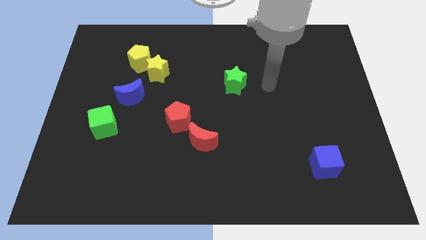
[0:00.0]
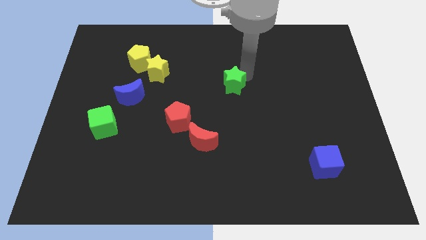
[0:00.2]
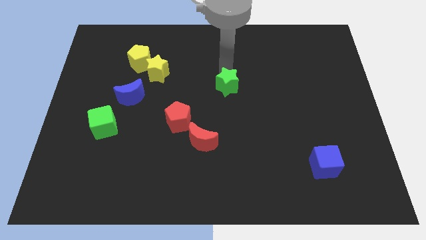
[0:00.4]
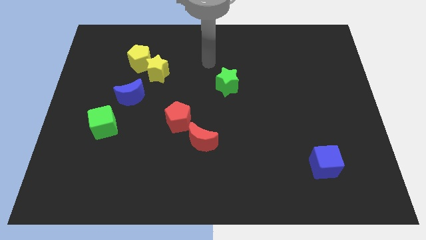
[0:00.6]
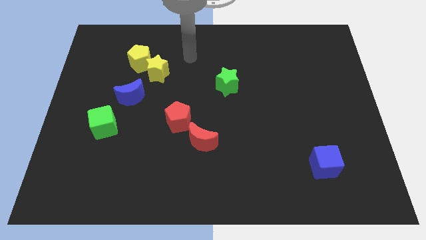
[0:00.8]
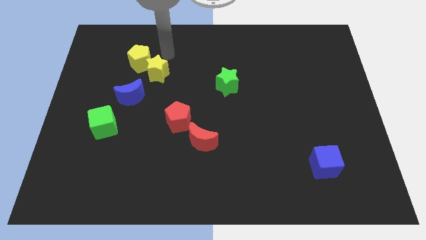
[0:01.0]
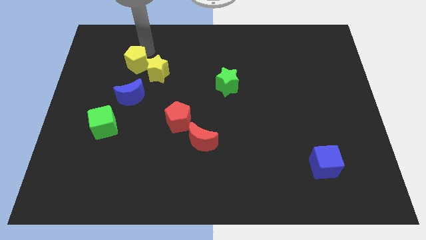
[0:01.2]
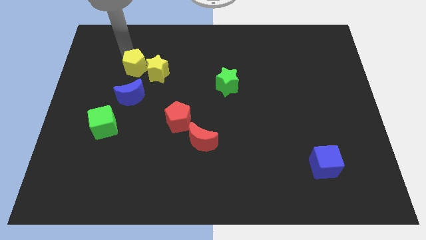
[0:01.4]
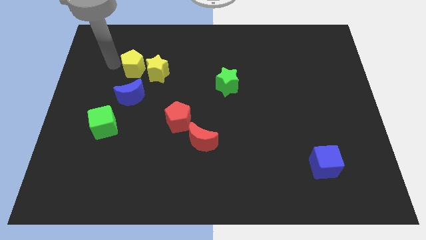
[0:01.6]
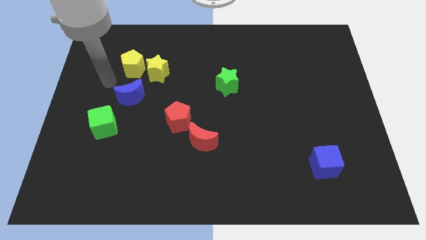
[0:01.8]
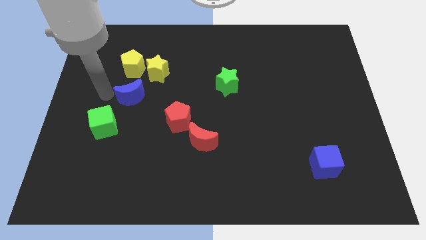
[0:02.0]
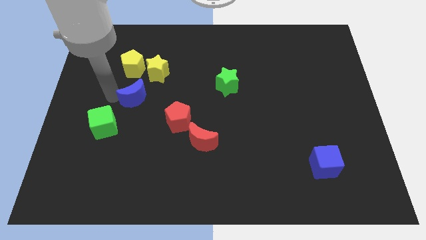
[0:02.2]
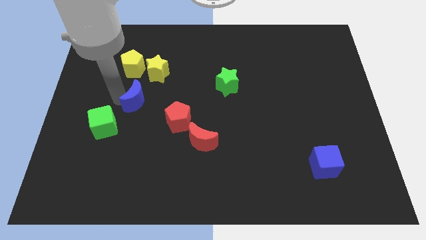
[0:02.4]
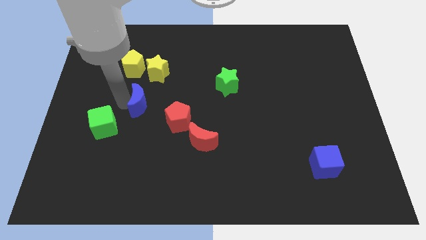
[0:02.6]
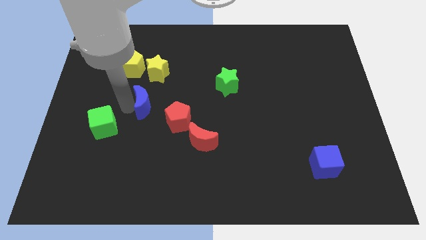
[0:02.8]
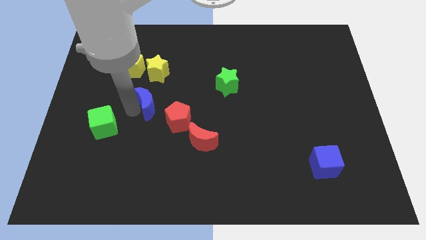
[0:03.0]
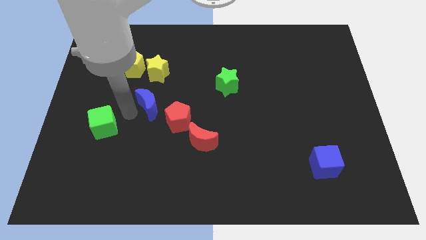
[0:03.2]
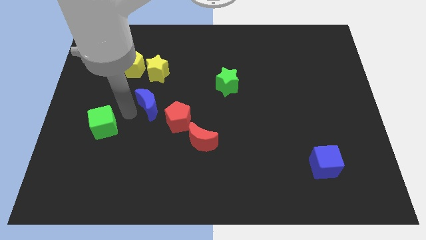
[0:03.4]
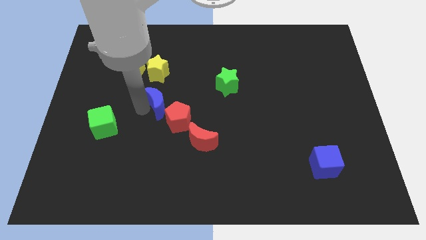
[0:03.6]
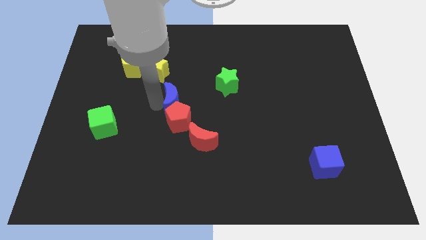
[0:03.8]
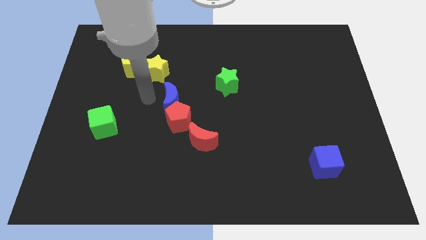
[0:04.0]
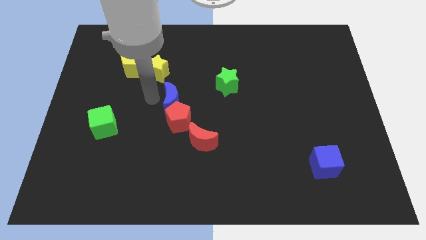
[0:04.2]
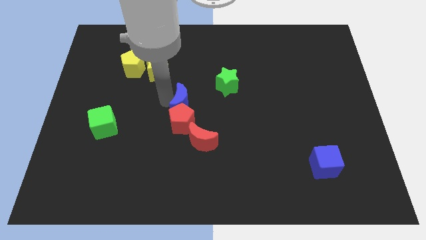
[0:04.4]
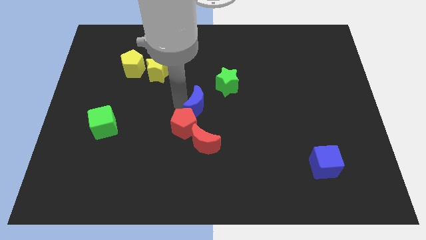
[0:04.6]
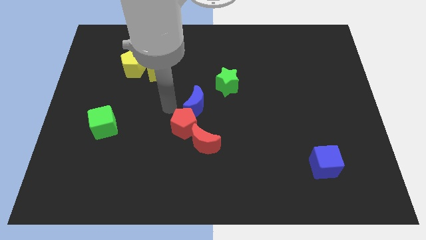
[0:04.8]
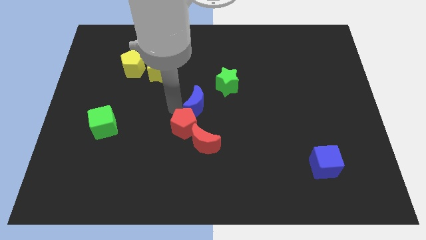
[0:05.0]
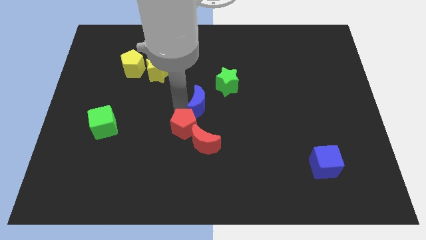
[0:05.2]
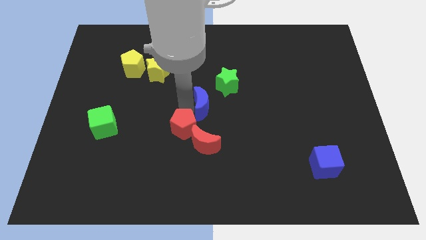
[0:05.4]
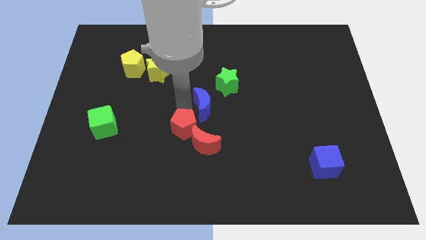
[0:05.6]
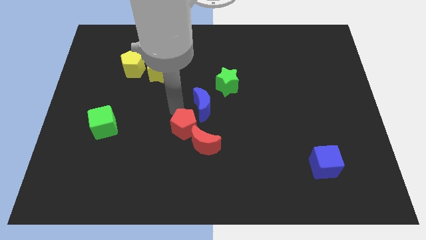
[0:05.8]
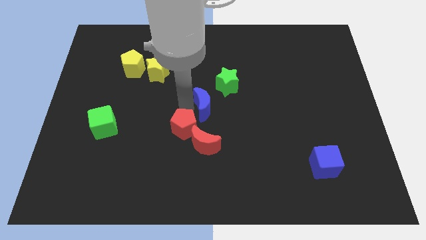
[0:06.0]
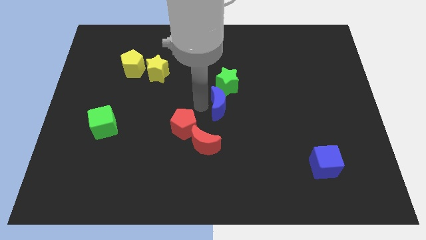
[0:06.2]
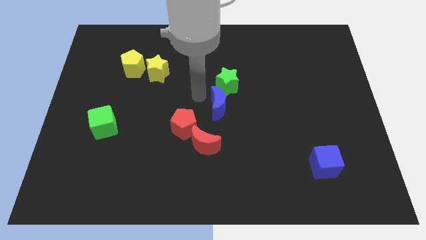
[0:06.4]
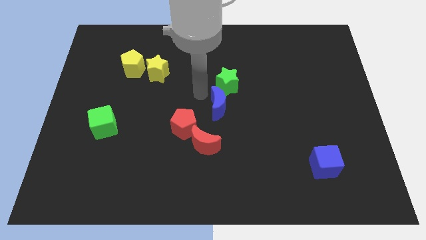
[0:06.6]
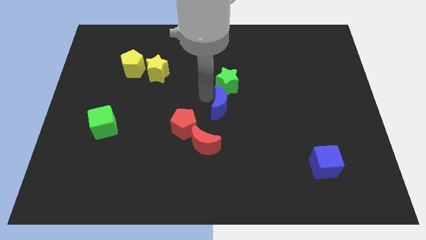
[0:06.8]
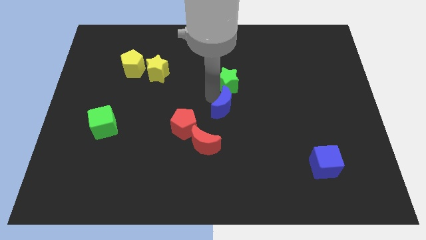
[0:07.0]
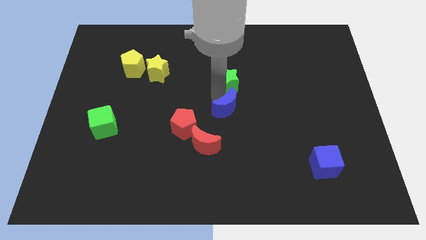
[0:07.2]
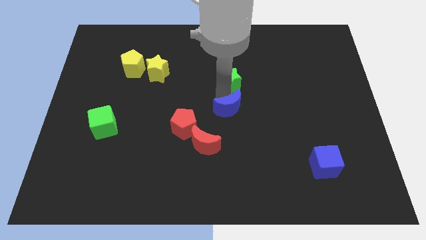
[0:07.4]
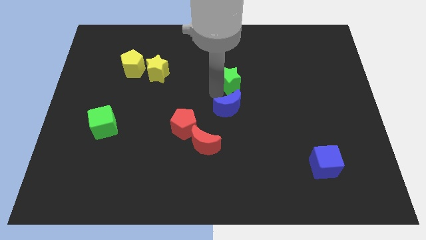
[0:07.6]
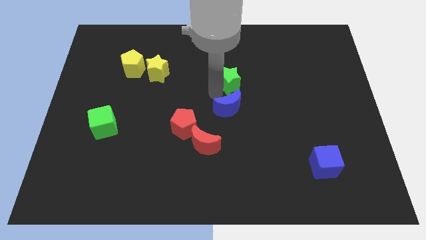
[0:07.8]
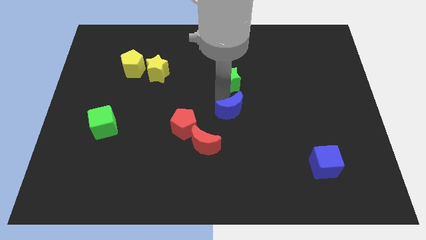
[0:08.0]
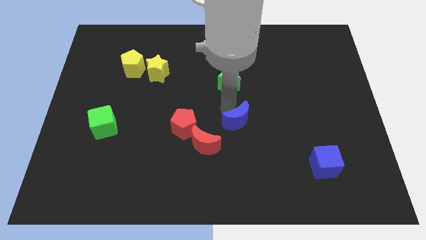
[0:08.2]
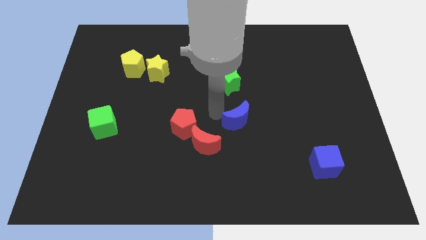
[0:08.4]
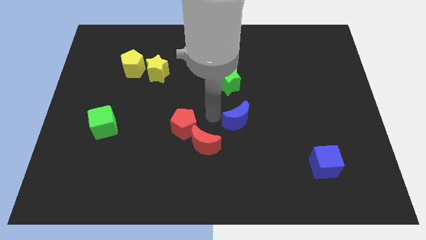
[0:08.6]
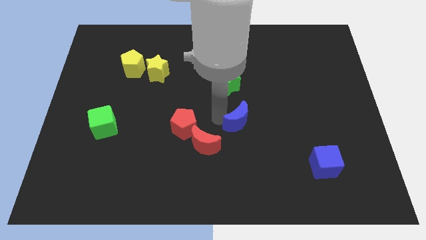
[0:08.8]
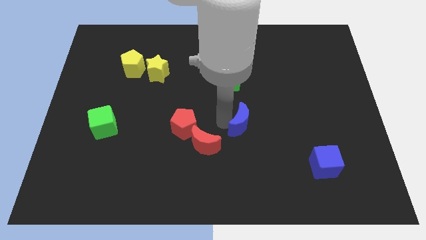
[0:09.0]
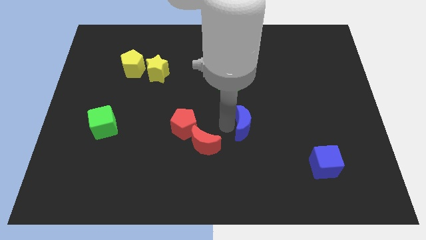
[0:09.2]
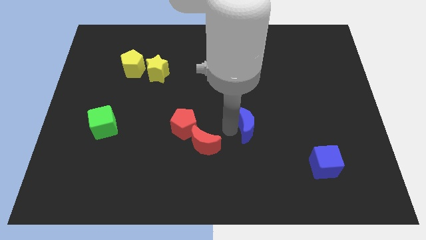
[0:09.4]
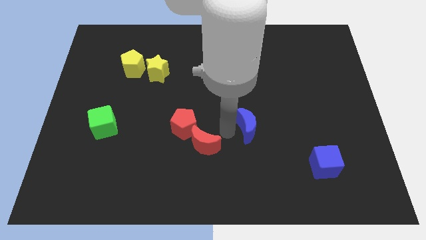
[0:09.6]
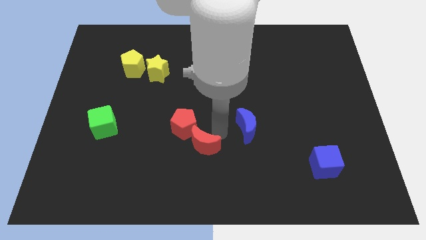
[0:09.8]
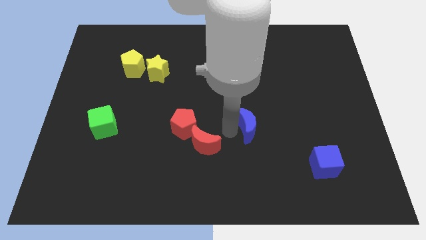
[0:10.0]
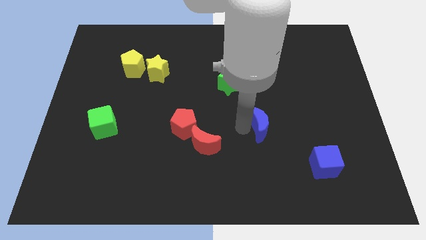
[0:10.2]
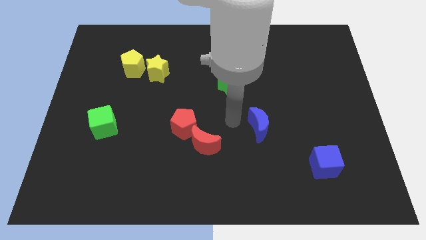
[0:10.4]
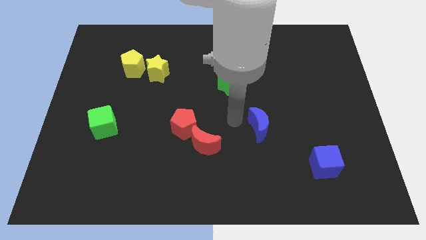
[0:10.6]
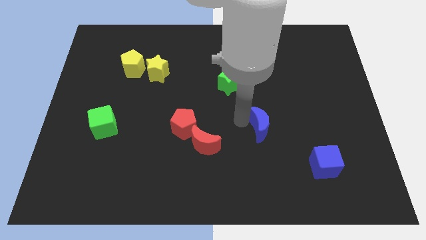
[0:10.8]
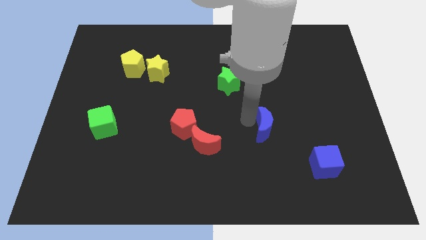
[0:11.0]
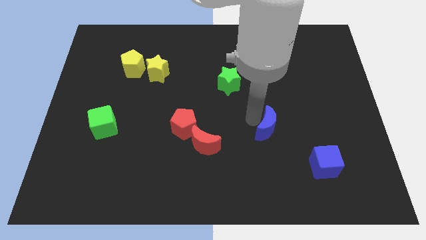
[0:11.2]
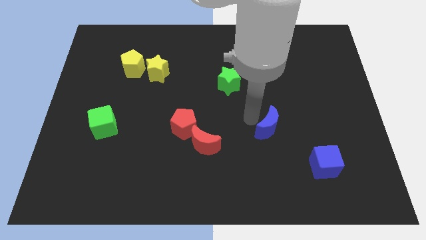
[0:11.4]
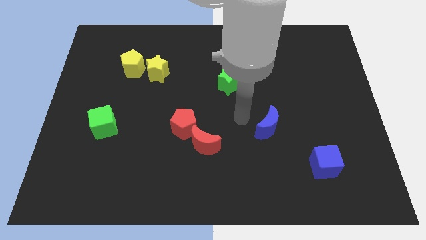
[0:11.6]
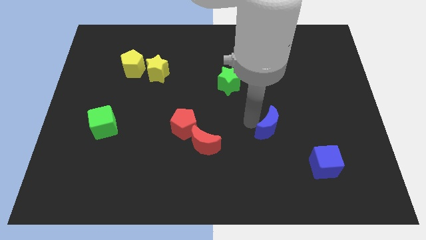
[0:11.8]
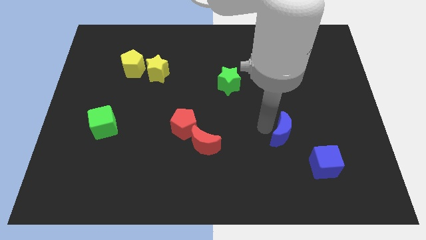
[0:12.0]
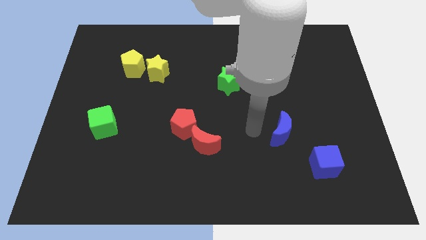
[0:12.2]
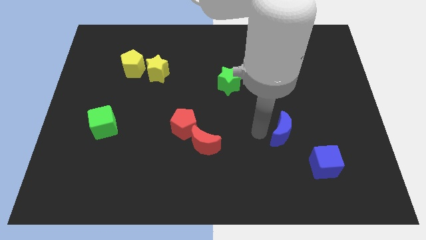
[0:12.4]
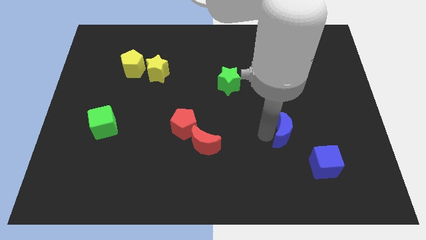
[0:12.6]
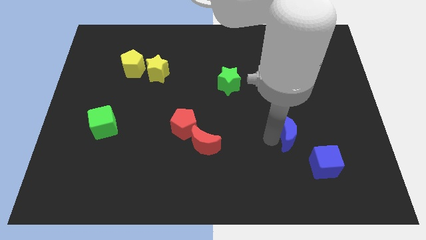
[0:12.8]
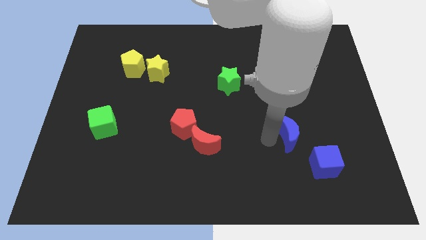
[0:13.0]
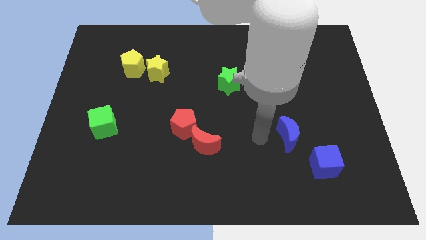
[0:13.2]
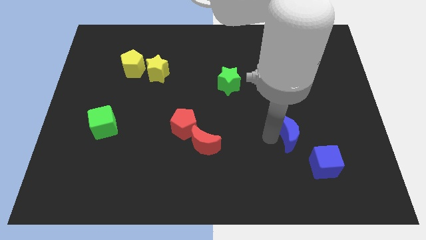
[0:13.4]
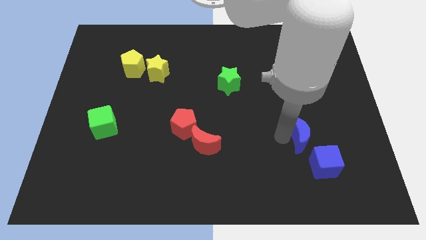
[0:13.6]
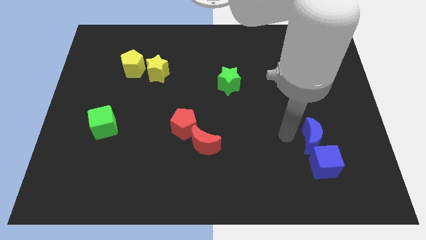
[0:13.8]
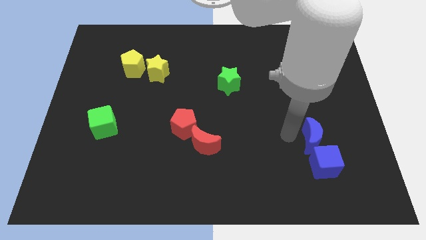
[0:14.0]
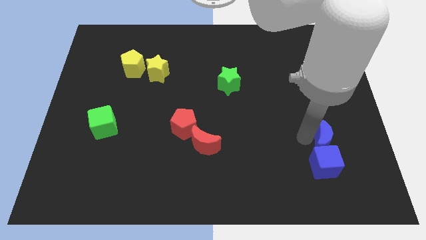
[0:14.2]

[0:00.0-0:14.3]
slide the blue moon diagonally up and to the right of the blue cube
